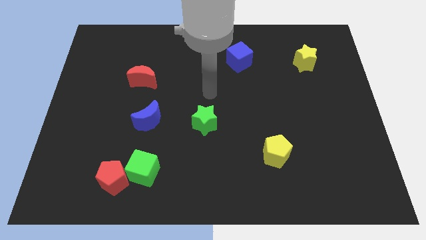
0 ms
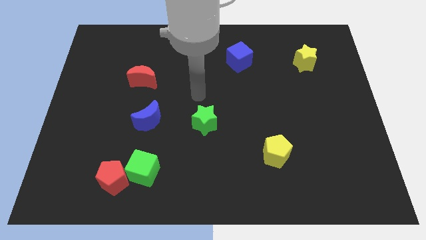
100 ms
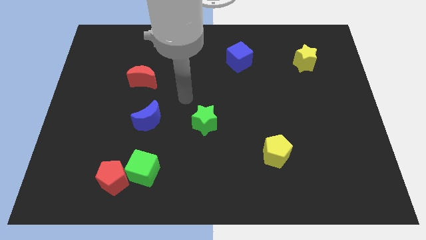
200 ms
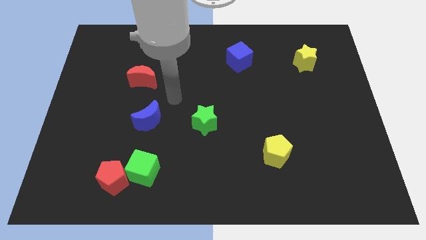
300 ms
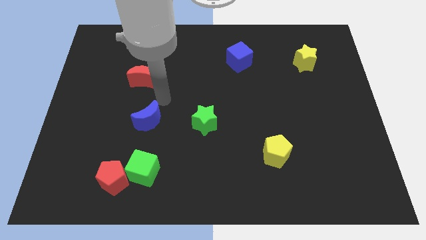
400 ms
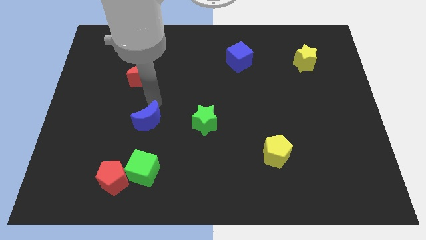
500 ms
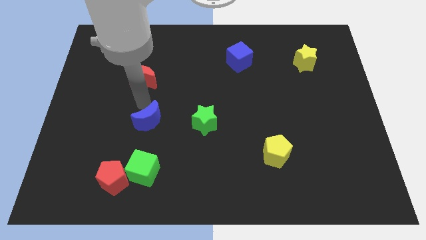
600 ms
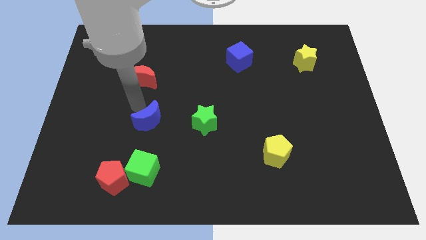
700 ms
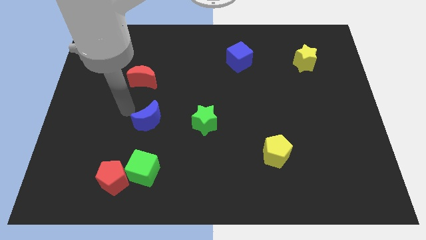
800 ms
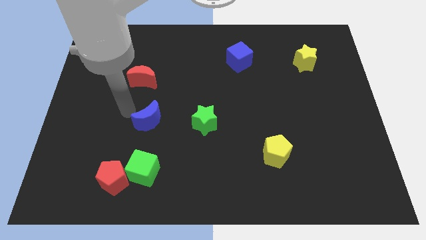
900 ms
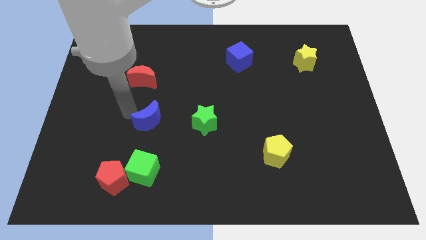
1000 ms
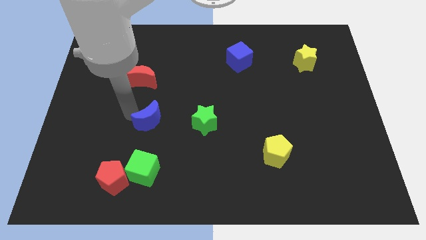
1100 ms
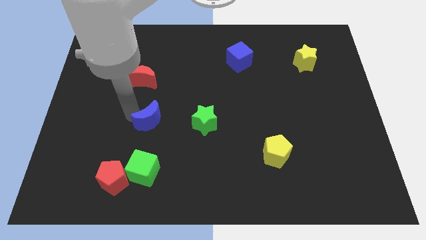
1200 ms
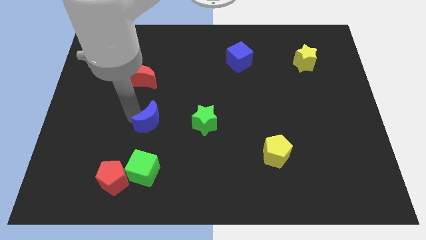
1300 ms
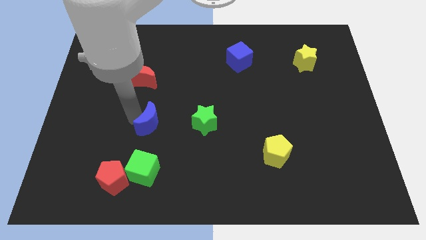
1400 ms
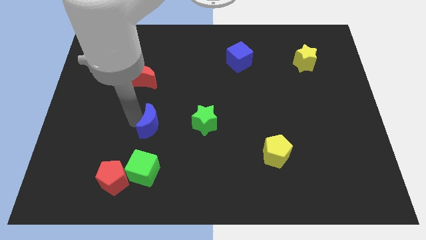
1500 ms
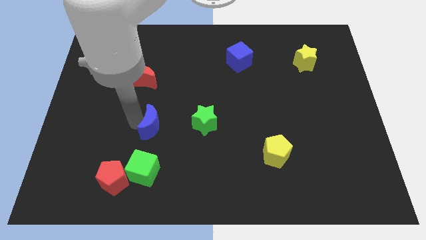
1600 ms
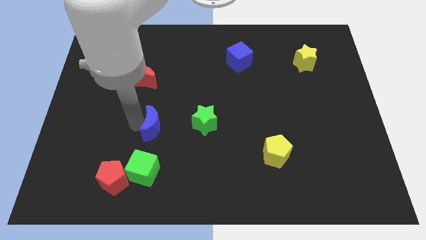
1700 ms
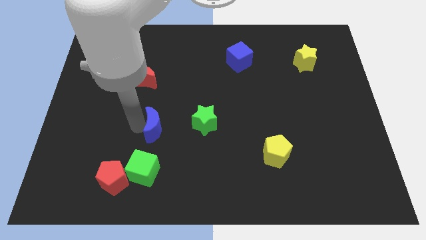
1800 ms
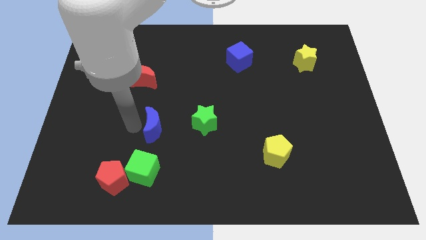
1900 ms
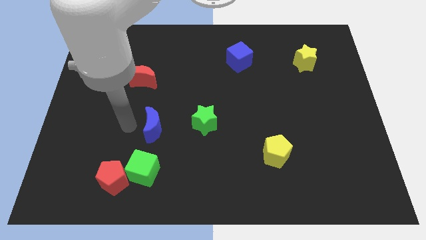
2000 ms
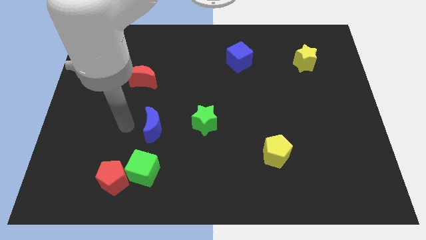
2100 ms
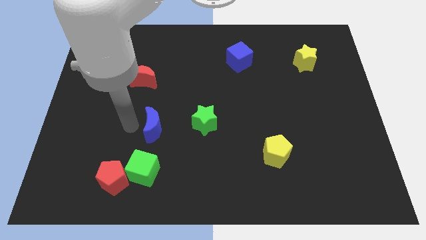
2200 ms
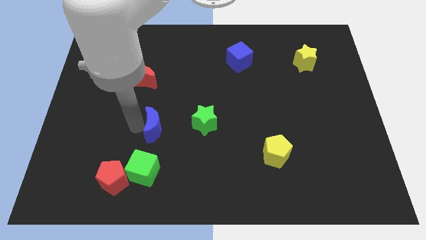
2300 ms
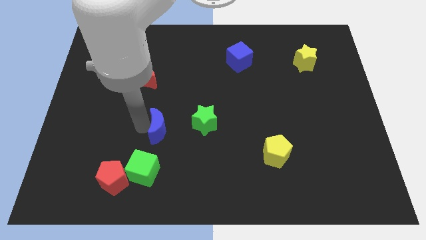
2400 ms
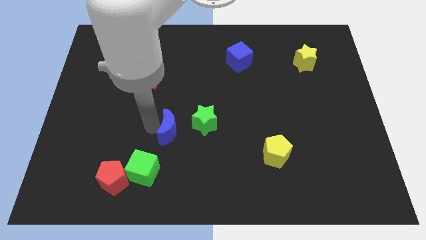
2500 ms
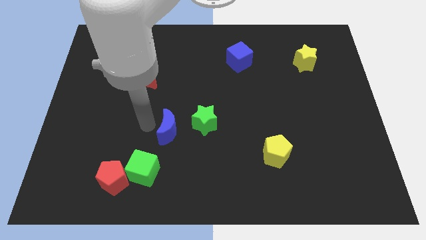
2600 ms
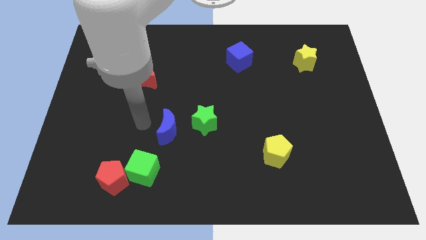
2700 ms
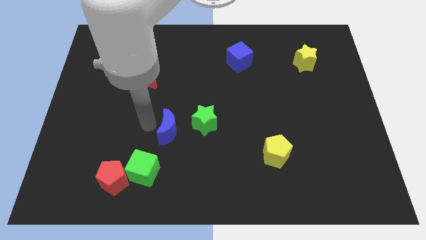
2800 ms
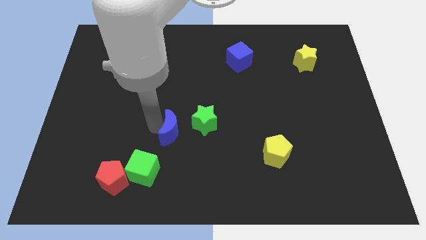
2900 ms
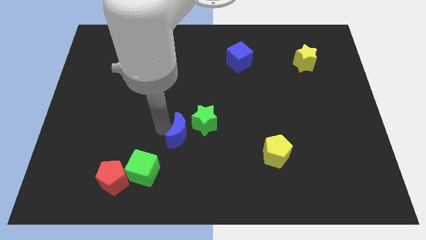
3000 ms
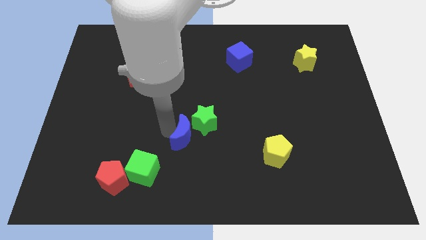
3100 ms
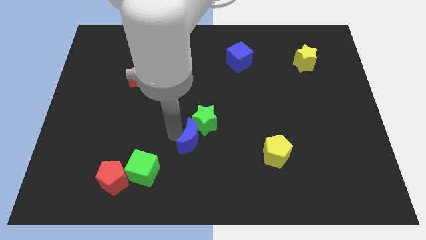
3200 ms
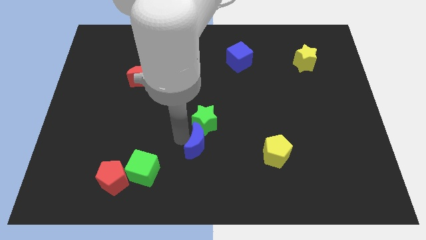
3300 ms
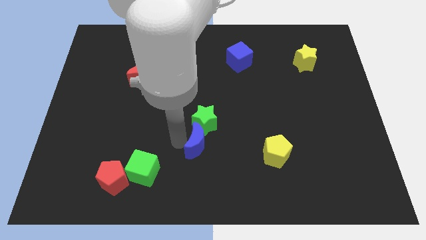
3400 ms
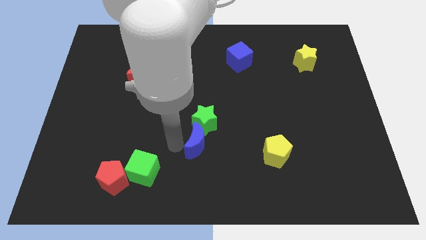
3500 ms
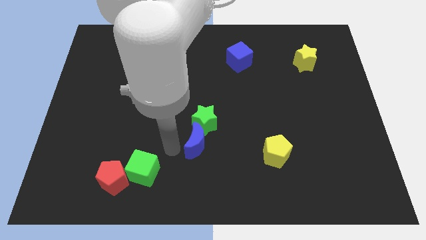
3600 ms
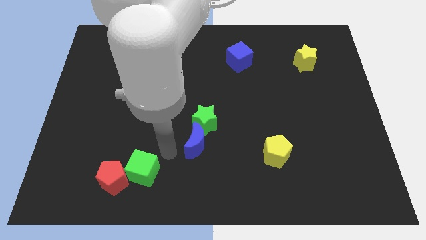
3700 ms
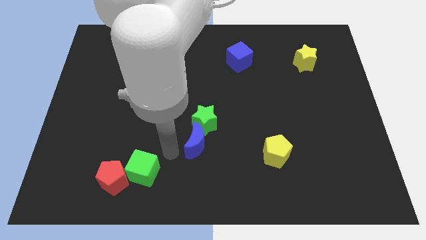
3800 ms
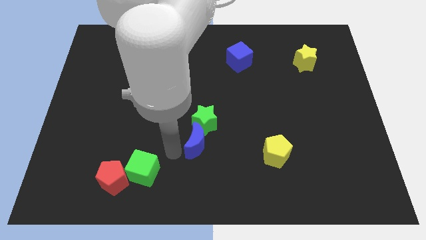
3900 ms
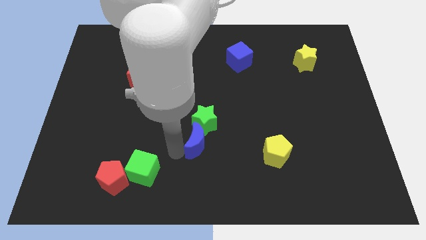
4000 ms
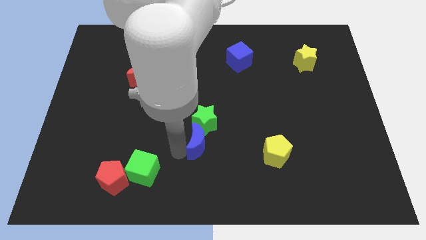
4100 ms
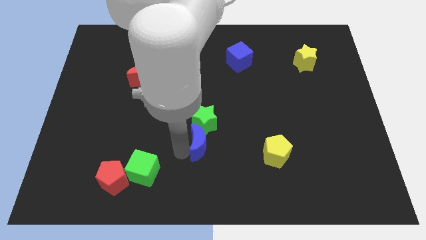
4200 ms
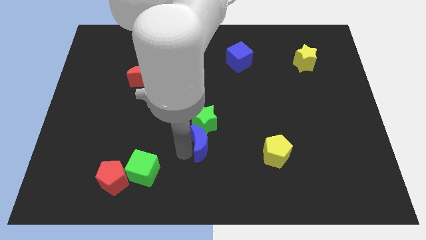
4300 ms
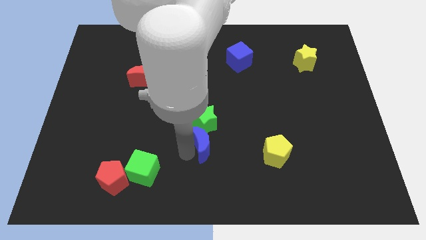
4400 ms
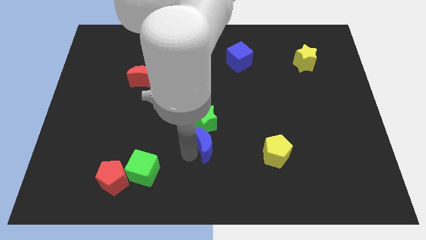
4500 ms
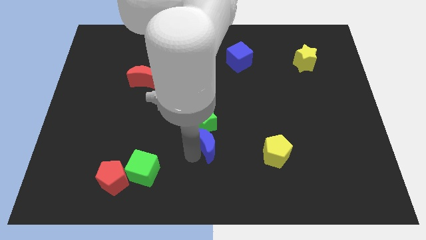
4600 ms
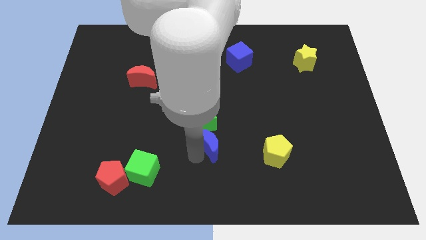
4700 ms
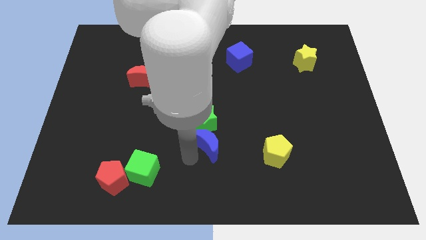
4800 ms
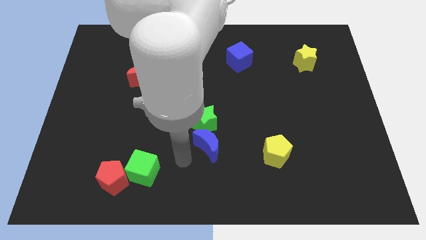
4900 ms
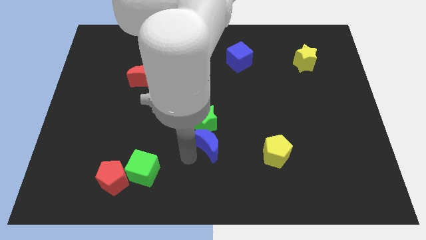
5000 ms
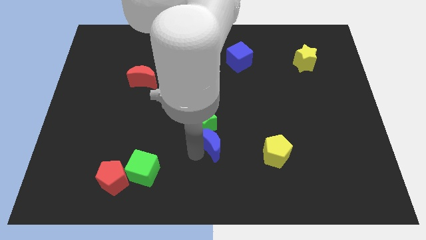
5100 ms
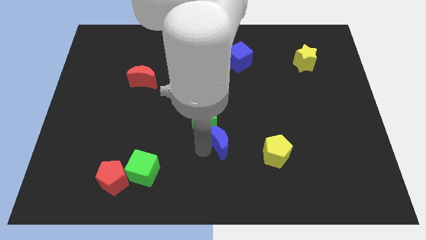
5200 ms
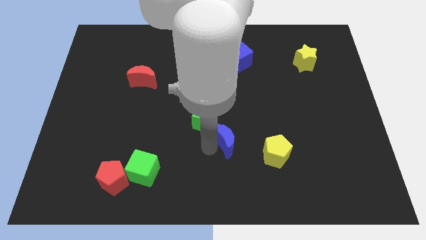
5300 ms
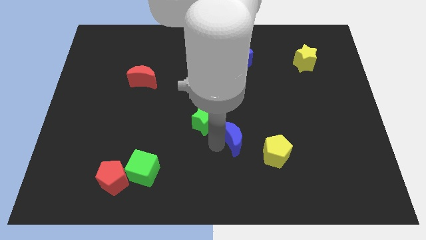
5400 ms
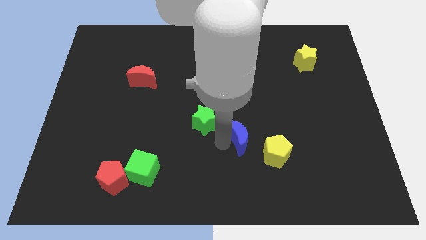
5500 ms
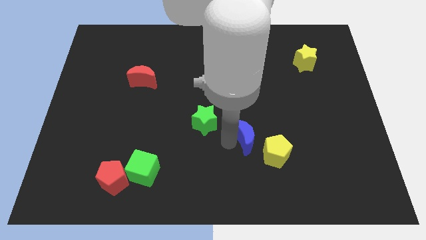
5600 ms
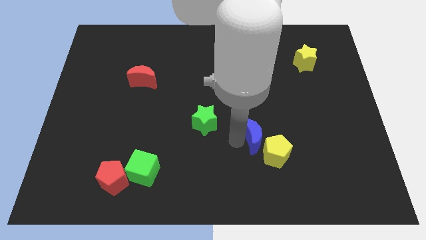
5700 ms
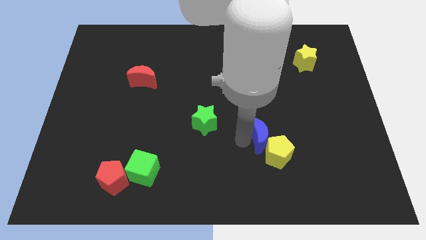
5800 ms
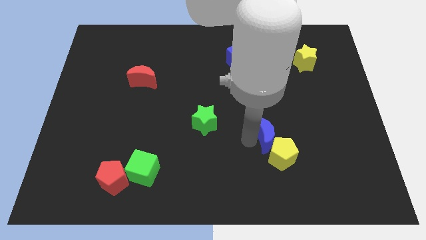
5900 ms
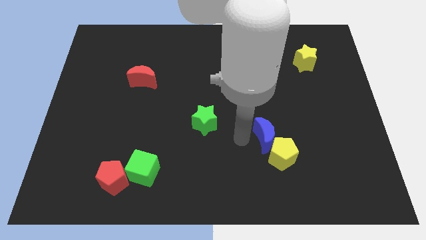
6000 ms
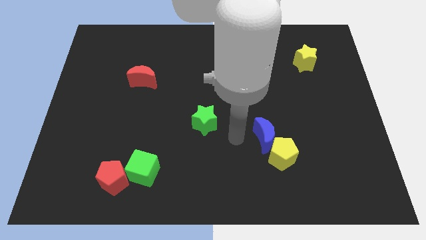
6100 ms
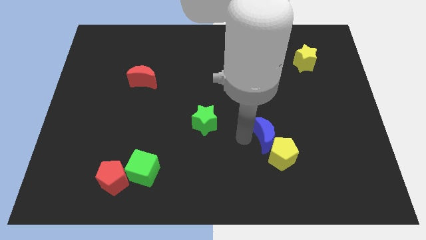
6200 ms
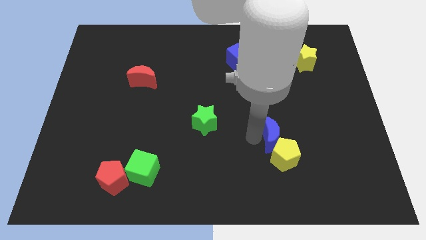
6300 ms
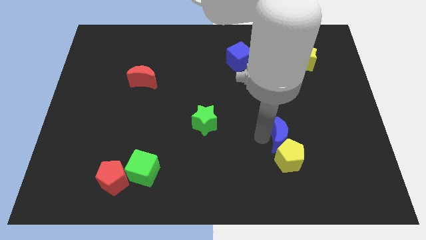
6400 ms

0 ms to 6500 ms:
push the blue moon diagonally up and to the right of the yellow pentagon
